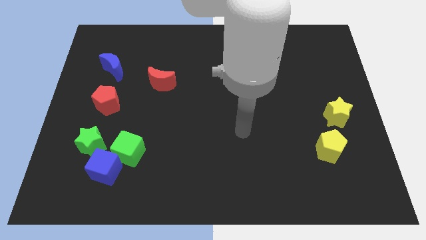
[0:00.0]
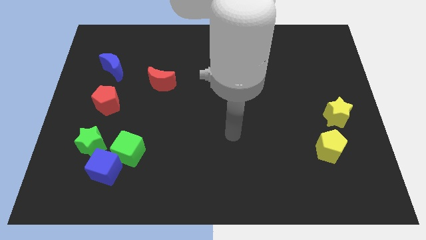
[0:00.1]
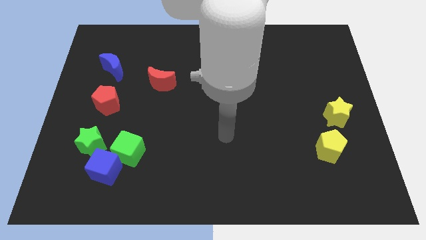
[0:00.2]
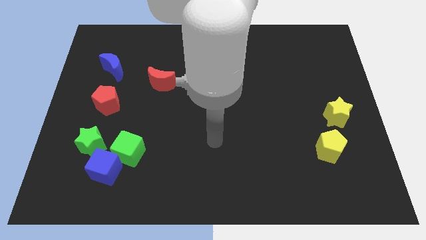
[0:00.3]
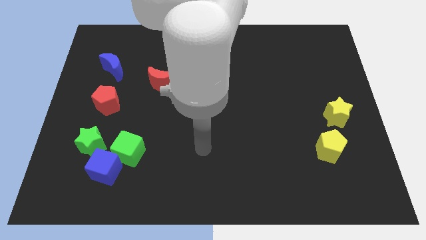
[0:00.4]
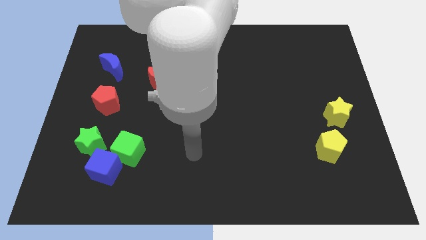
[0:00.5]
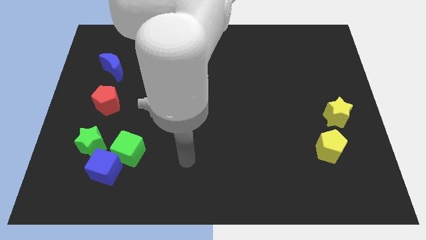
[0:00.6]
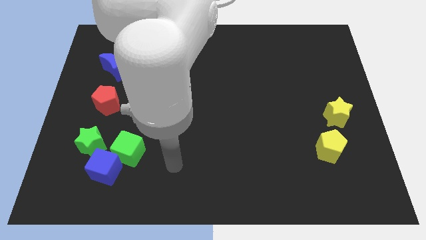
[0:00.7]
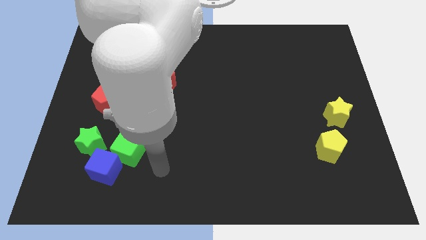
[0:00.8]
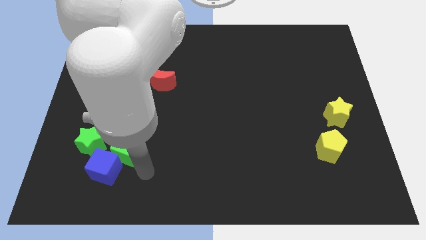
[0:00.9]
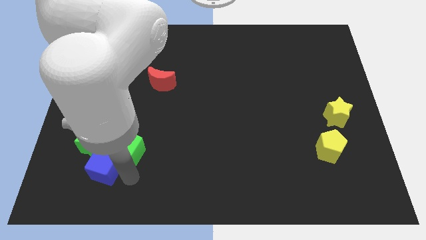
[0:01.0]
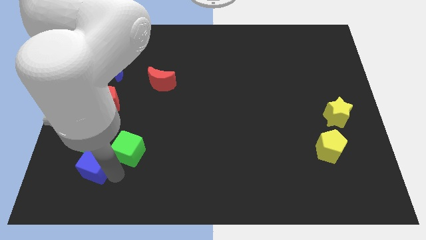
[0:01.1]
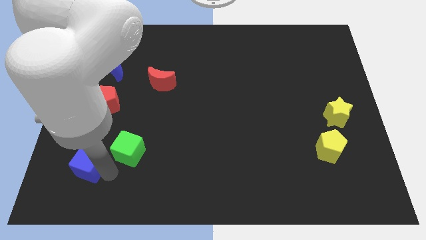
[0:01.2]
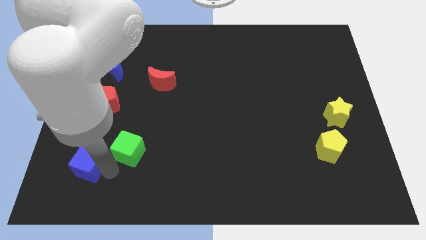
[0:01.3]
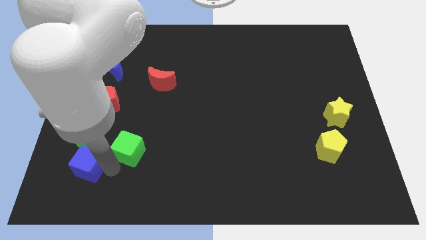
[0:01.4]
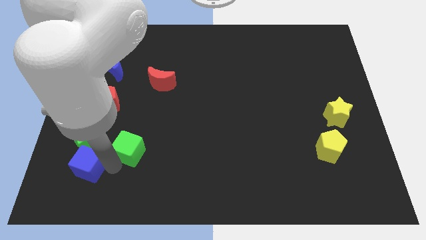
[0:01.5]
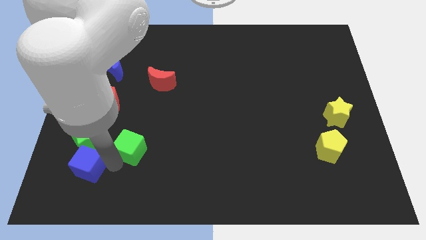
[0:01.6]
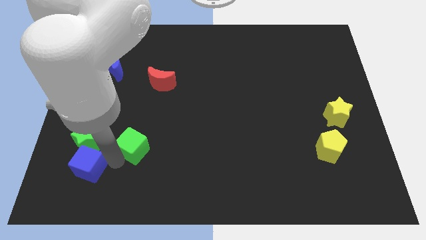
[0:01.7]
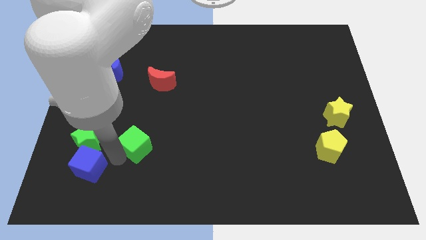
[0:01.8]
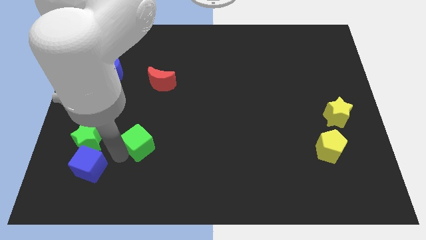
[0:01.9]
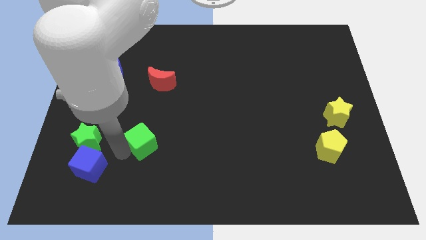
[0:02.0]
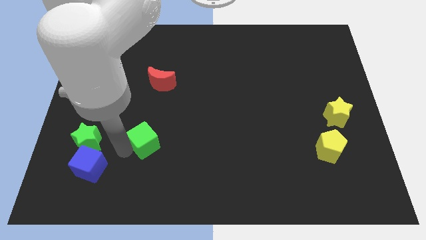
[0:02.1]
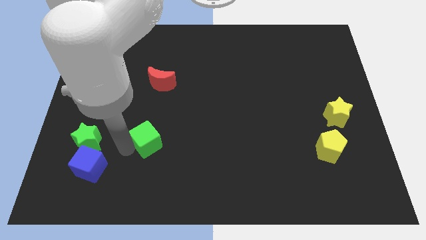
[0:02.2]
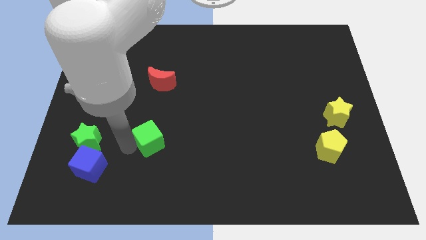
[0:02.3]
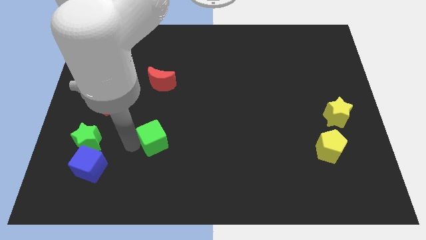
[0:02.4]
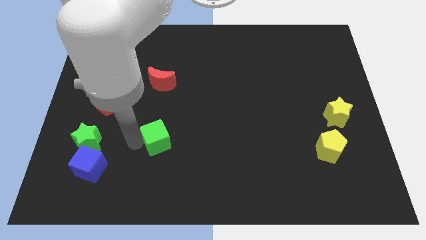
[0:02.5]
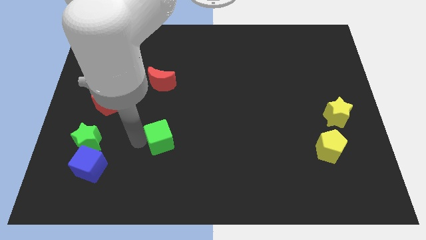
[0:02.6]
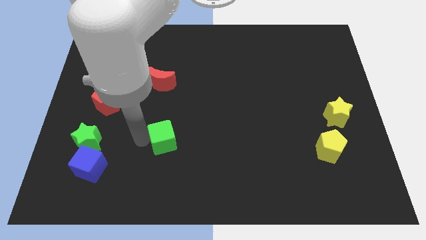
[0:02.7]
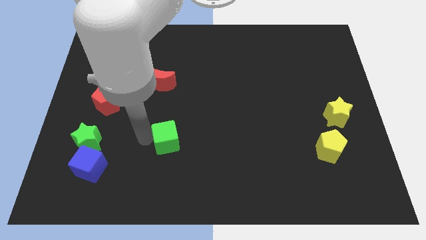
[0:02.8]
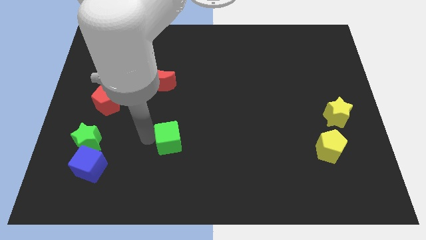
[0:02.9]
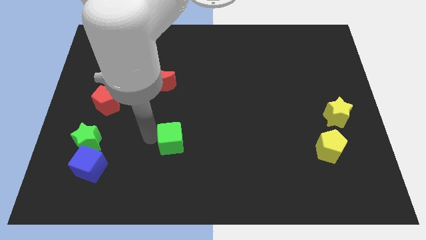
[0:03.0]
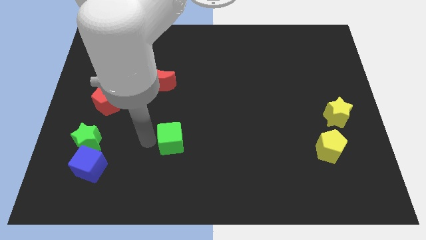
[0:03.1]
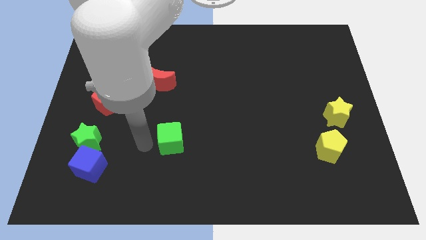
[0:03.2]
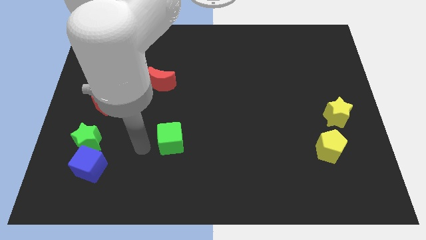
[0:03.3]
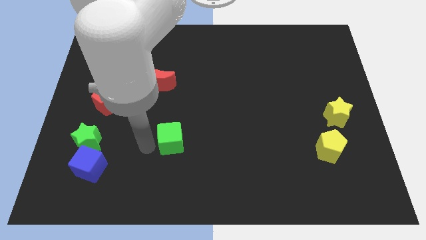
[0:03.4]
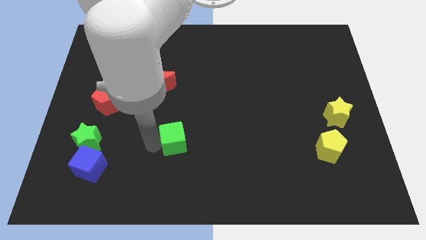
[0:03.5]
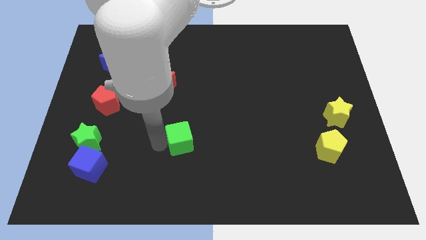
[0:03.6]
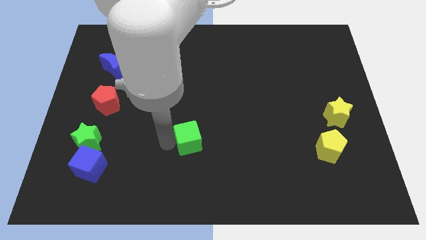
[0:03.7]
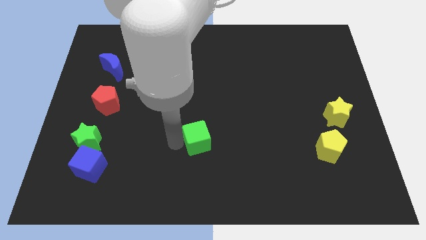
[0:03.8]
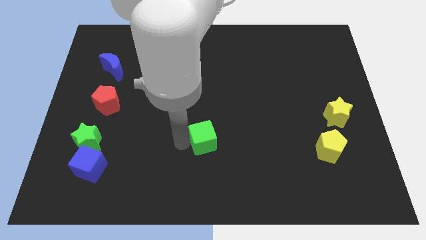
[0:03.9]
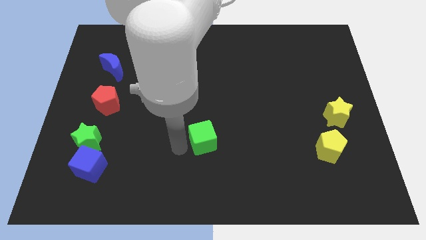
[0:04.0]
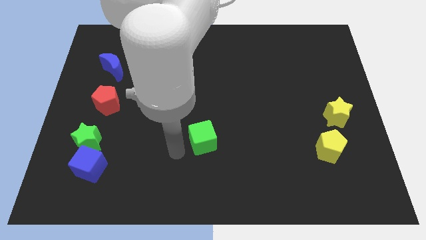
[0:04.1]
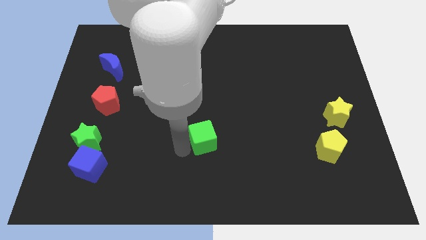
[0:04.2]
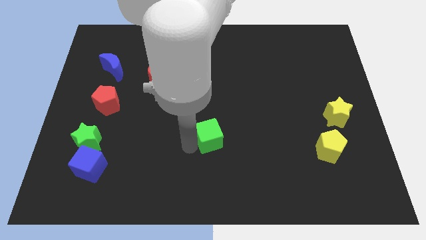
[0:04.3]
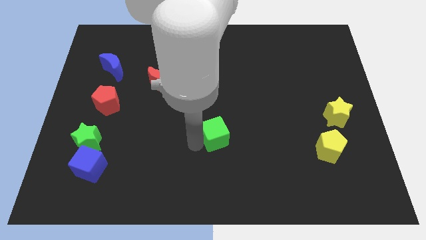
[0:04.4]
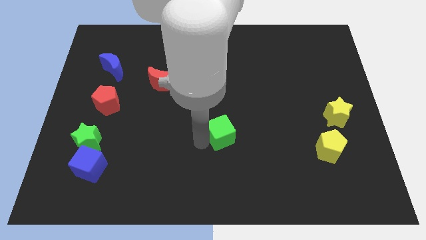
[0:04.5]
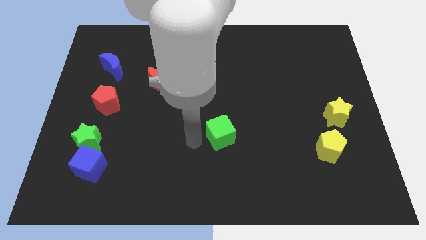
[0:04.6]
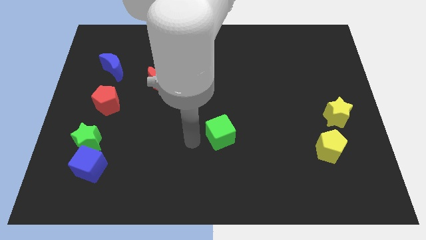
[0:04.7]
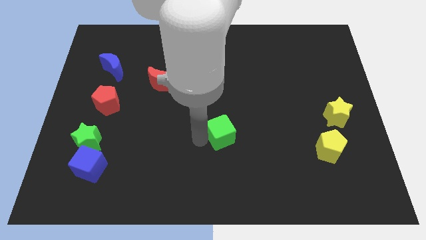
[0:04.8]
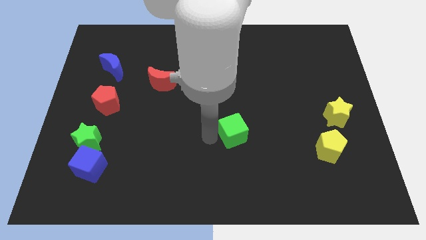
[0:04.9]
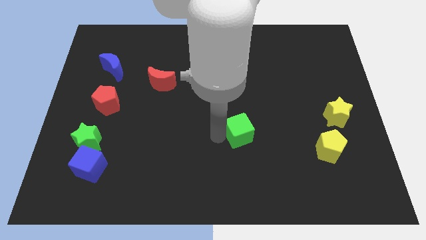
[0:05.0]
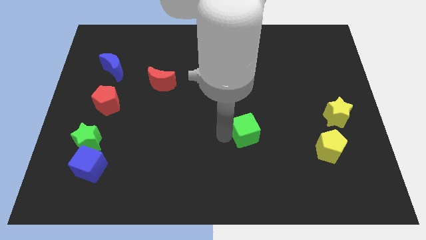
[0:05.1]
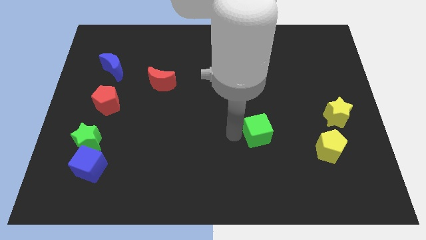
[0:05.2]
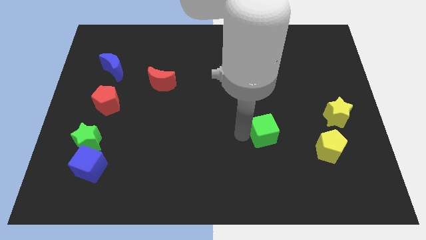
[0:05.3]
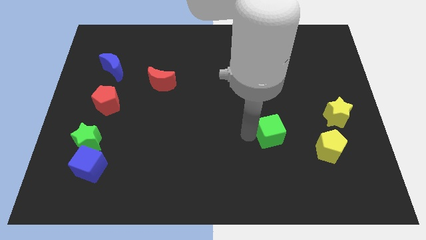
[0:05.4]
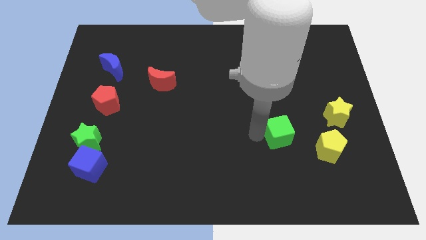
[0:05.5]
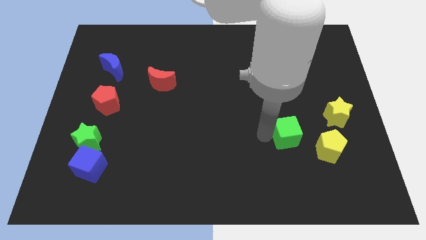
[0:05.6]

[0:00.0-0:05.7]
move the green cube diagonally up and to the left of the yellow pentagon

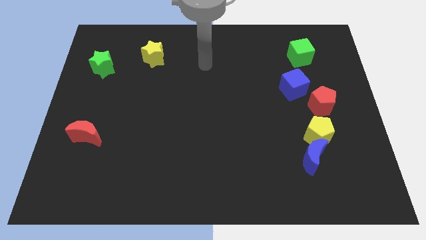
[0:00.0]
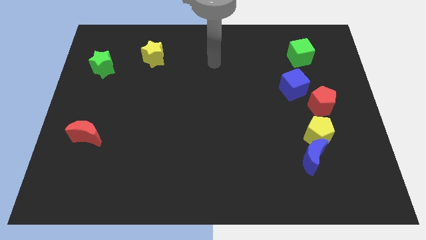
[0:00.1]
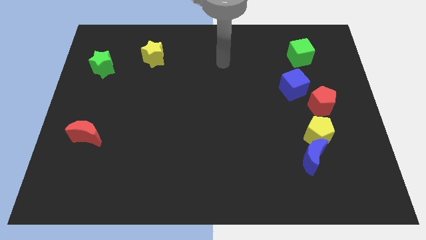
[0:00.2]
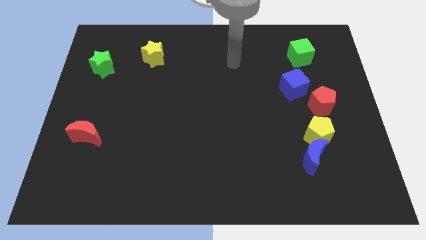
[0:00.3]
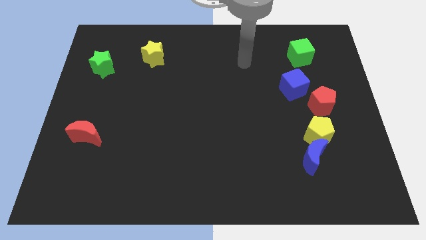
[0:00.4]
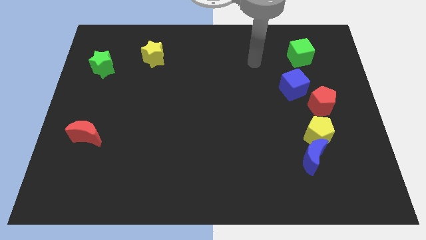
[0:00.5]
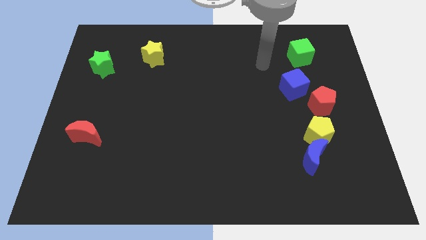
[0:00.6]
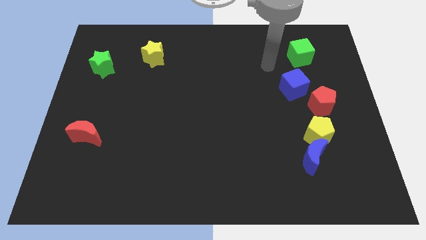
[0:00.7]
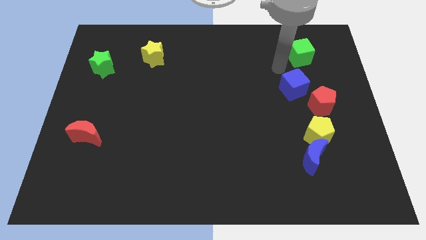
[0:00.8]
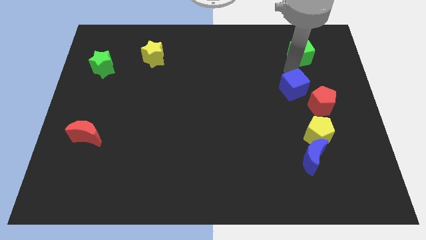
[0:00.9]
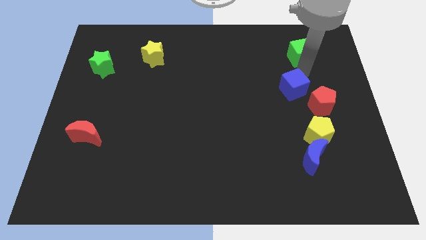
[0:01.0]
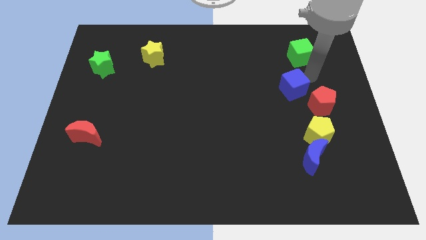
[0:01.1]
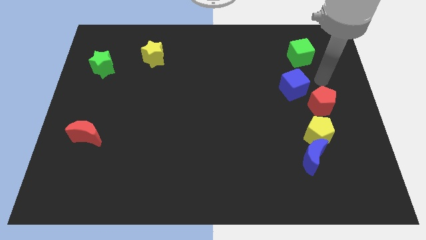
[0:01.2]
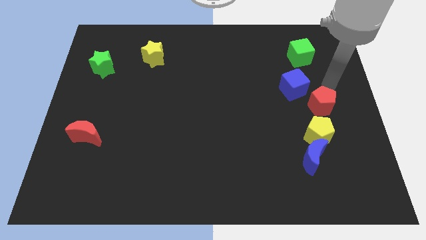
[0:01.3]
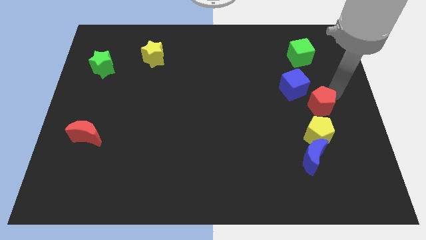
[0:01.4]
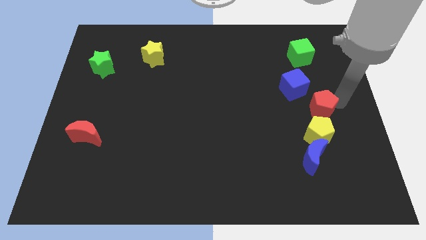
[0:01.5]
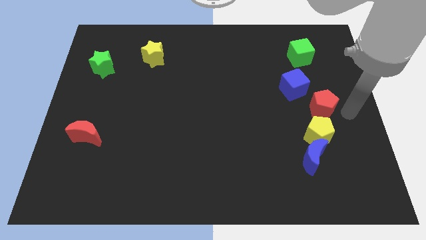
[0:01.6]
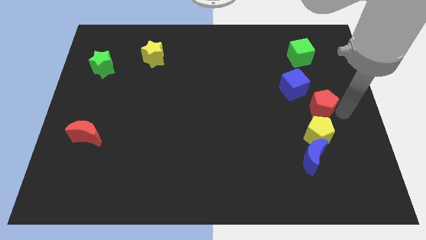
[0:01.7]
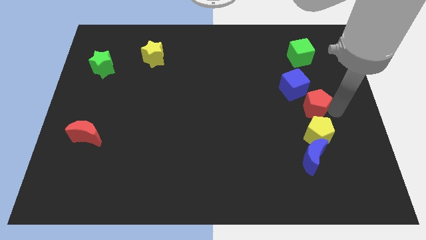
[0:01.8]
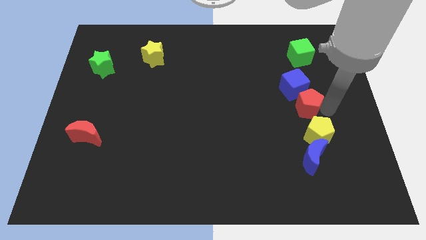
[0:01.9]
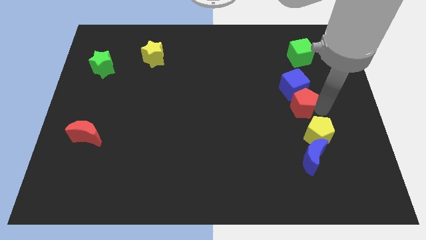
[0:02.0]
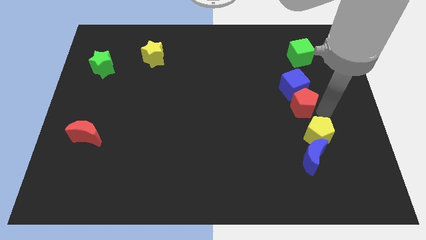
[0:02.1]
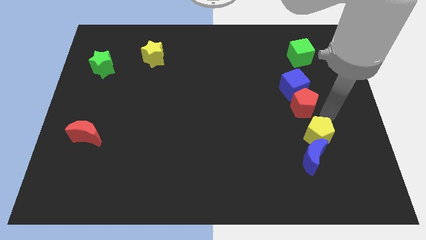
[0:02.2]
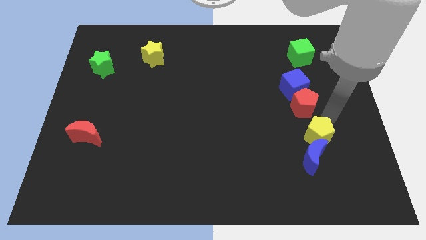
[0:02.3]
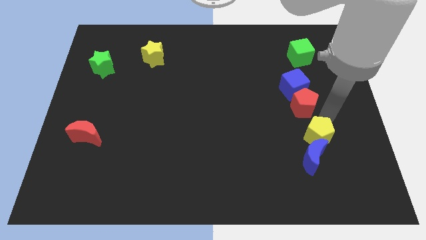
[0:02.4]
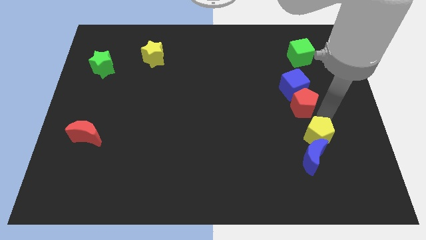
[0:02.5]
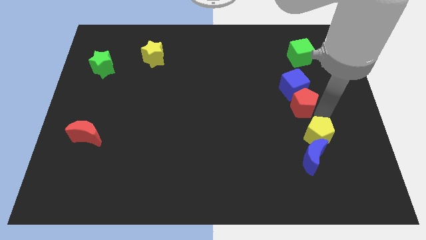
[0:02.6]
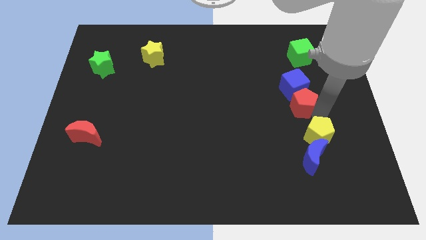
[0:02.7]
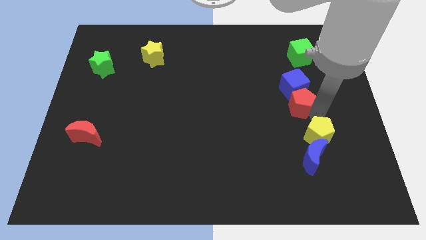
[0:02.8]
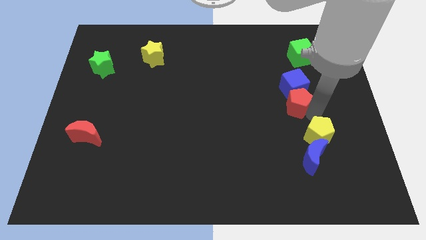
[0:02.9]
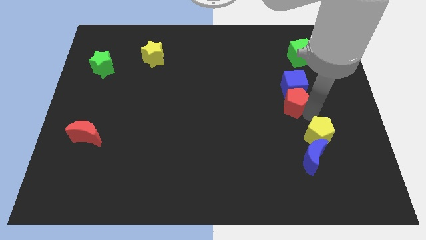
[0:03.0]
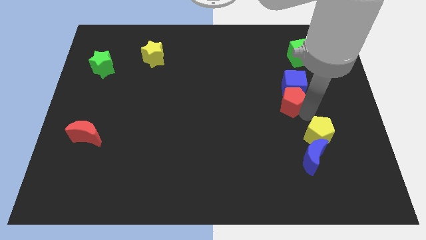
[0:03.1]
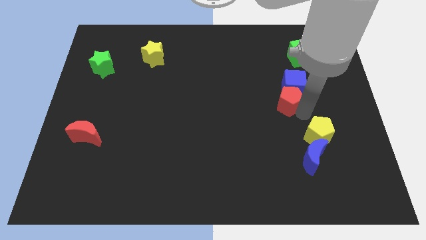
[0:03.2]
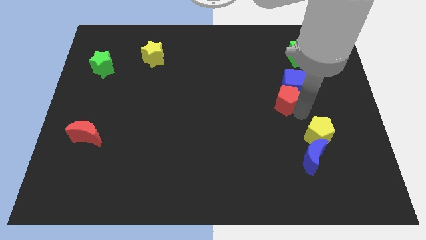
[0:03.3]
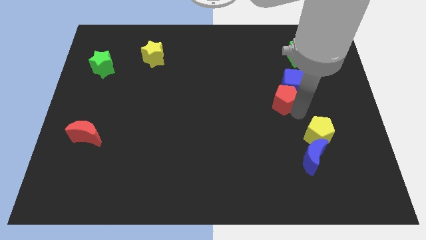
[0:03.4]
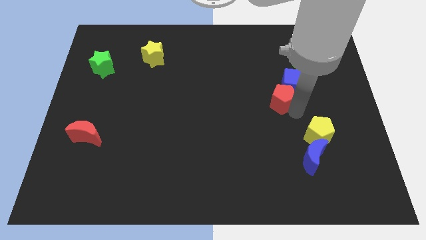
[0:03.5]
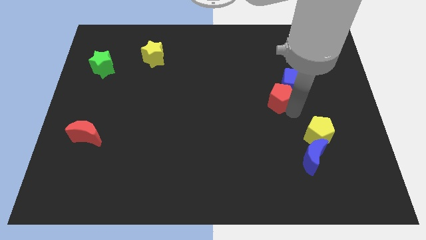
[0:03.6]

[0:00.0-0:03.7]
move the red pentagon left of the blue cube
